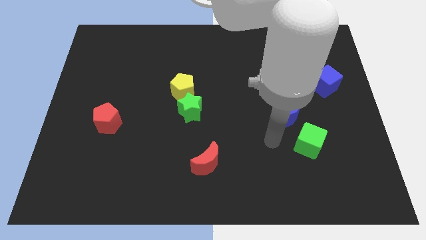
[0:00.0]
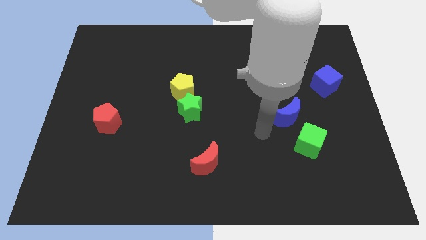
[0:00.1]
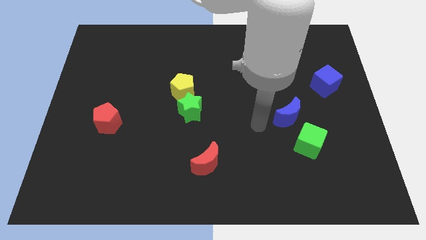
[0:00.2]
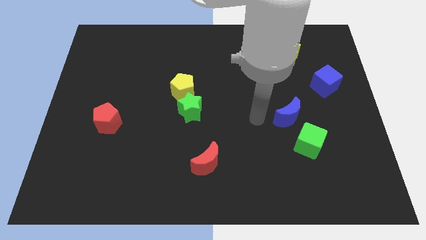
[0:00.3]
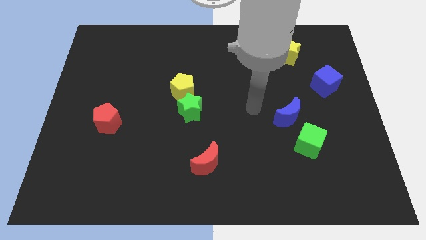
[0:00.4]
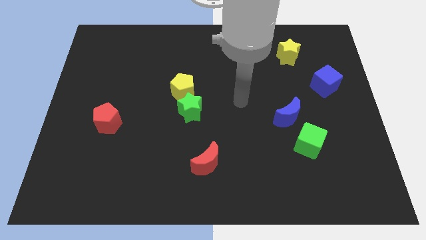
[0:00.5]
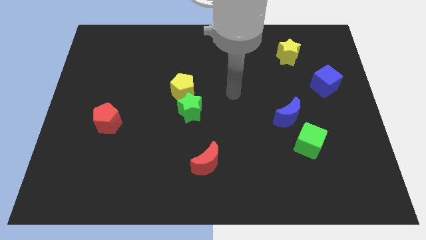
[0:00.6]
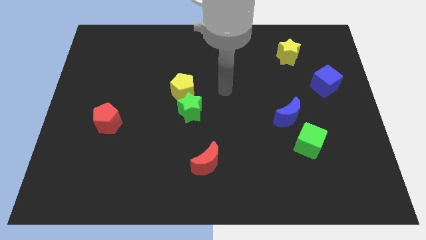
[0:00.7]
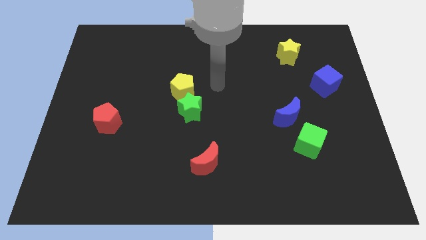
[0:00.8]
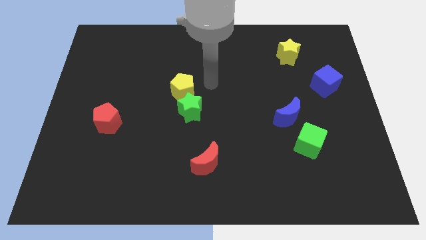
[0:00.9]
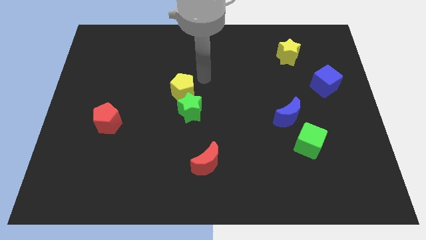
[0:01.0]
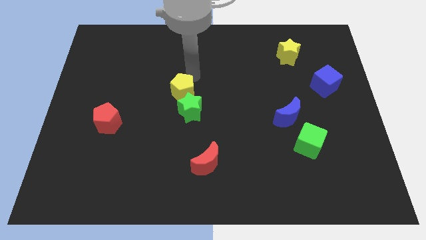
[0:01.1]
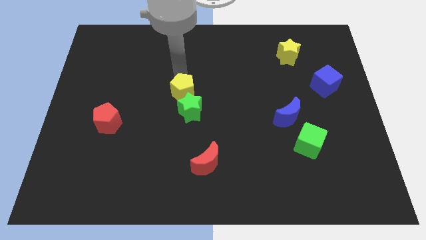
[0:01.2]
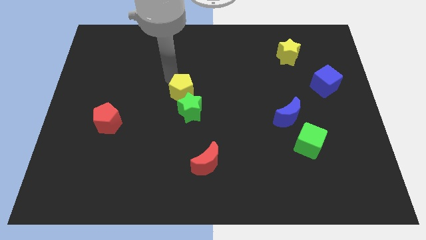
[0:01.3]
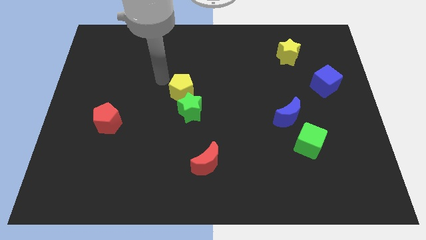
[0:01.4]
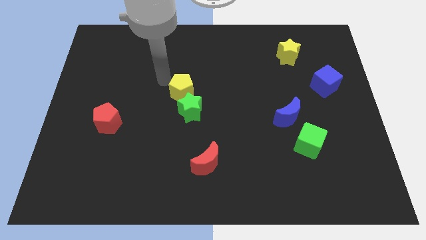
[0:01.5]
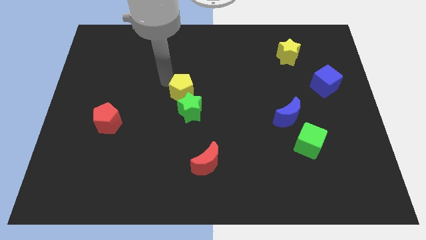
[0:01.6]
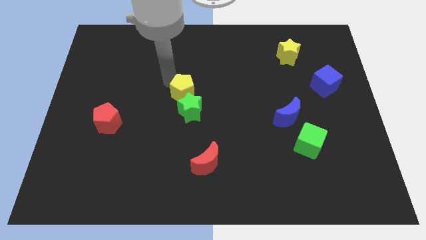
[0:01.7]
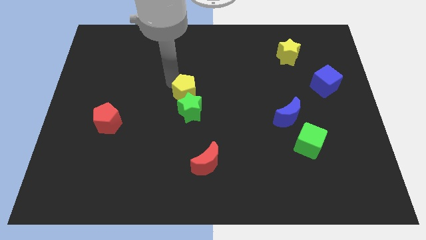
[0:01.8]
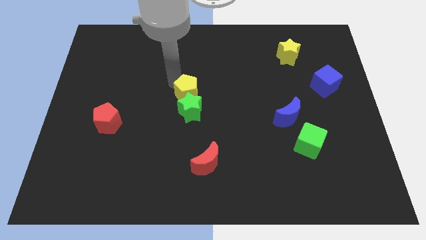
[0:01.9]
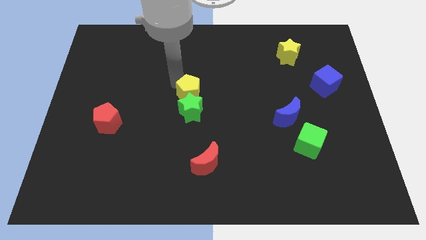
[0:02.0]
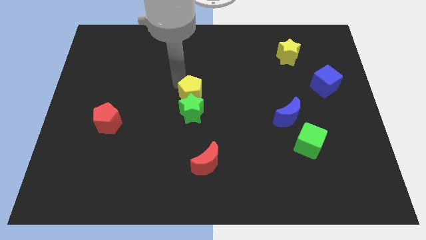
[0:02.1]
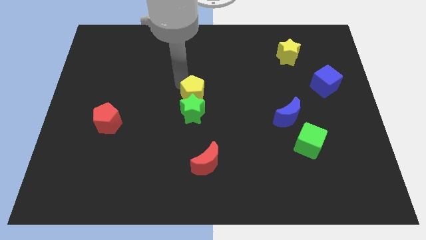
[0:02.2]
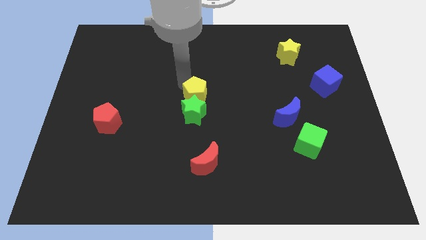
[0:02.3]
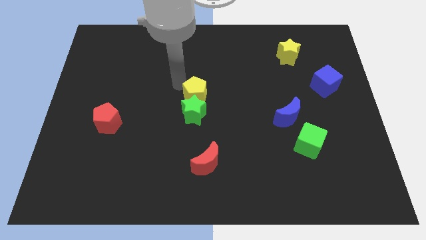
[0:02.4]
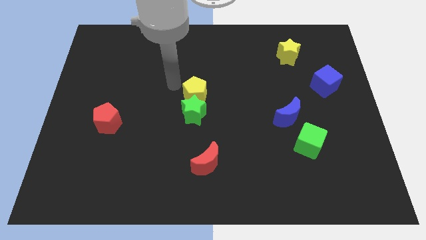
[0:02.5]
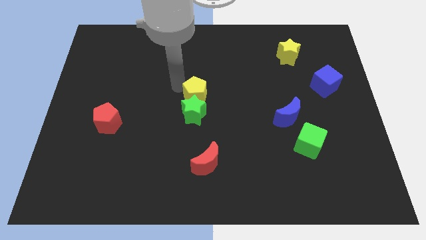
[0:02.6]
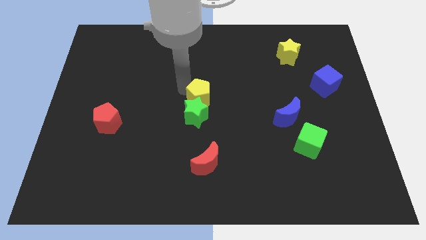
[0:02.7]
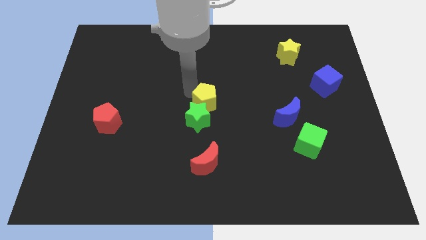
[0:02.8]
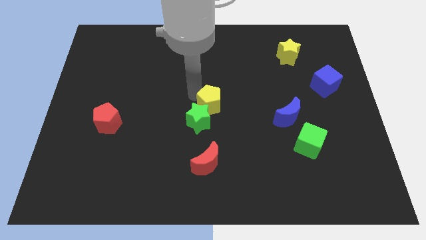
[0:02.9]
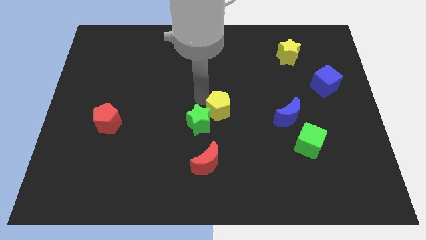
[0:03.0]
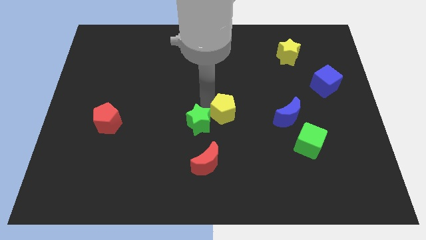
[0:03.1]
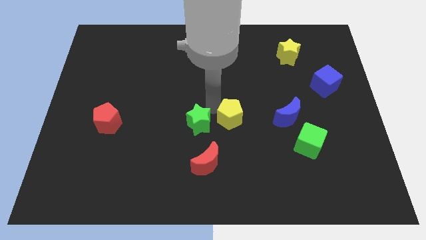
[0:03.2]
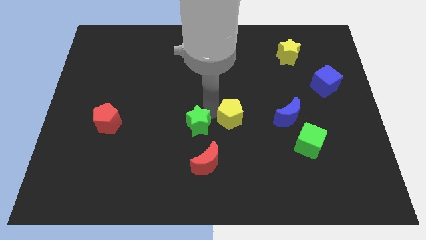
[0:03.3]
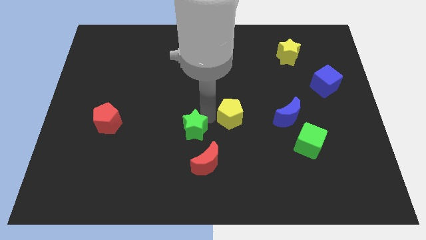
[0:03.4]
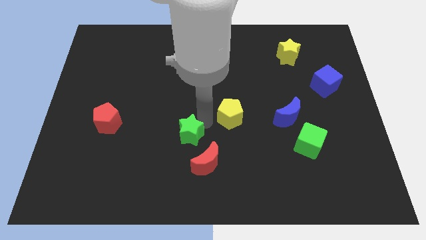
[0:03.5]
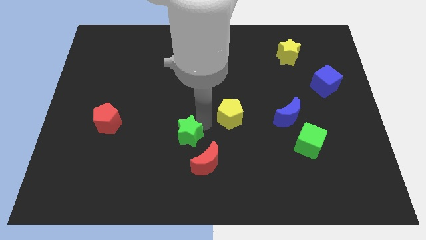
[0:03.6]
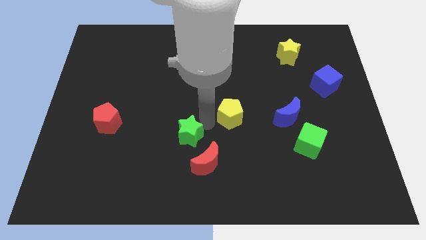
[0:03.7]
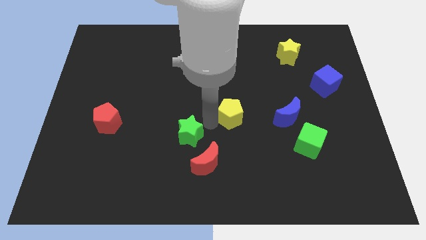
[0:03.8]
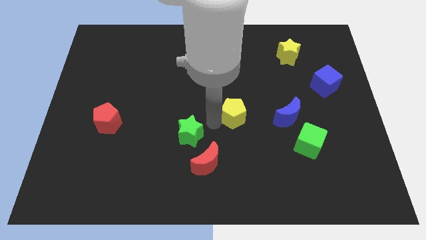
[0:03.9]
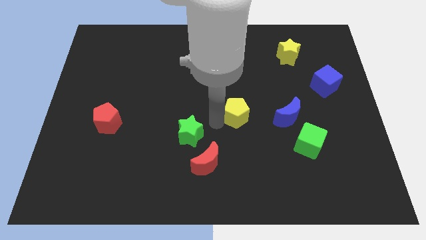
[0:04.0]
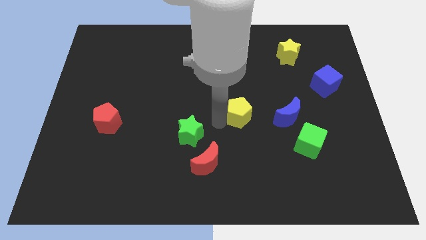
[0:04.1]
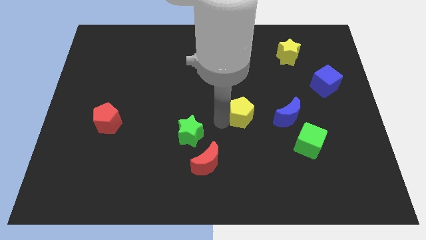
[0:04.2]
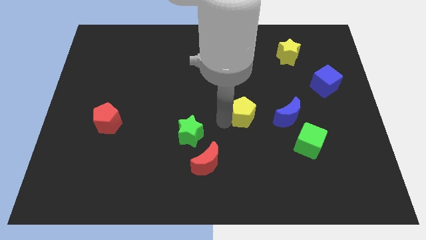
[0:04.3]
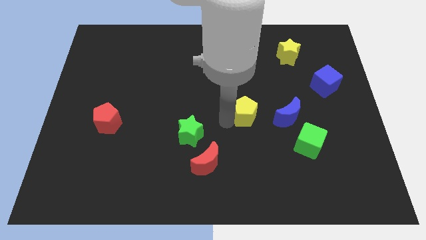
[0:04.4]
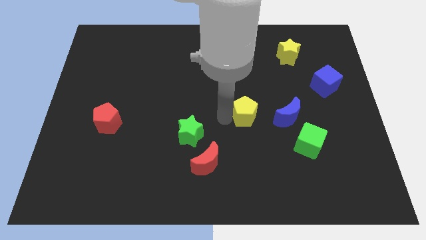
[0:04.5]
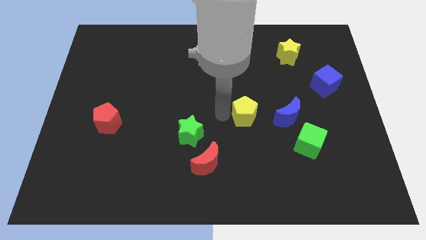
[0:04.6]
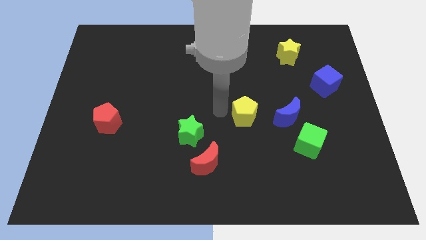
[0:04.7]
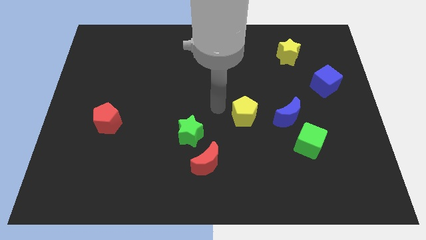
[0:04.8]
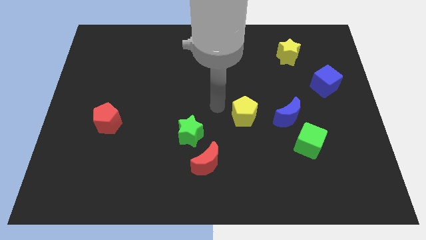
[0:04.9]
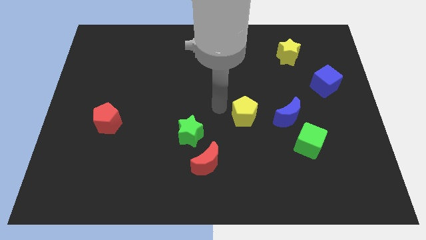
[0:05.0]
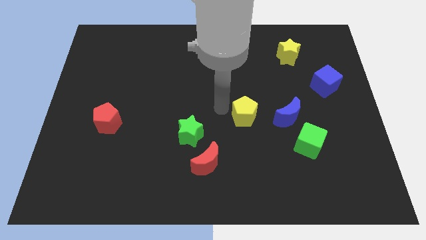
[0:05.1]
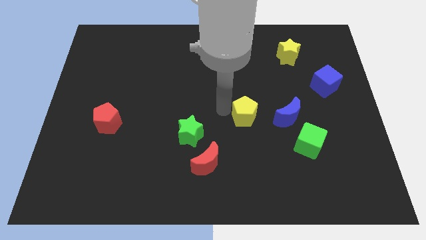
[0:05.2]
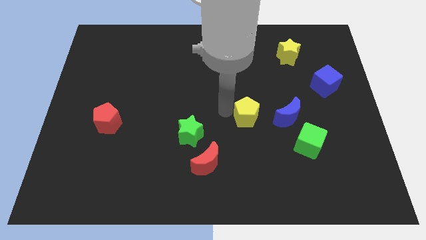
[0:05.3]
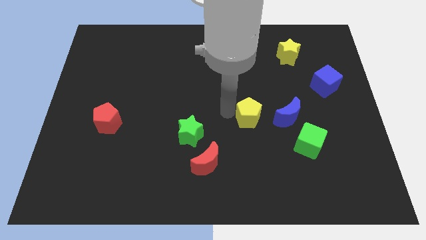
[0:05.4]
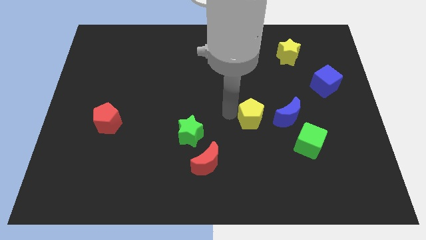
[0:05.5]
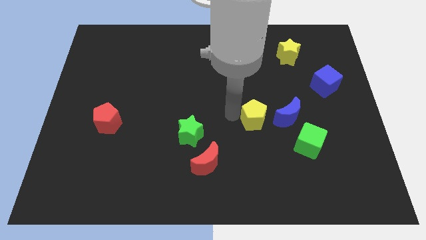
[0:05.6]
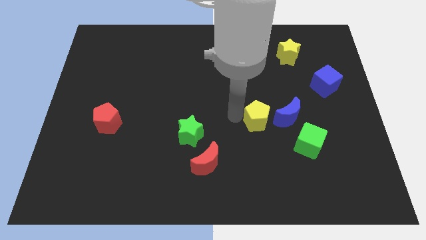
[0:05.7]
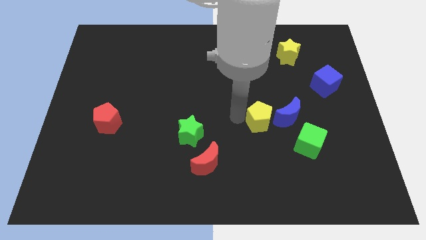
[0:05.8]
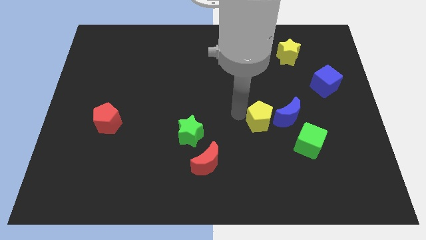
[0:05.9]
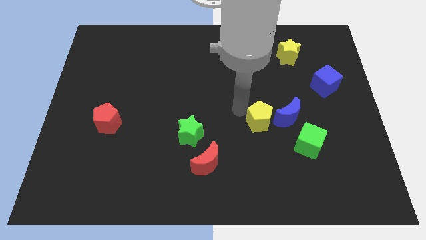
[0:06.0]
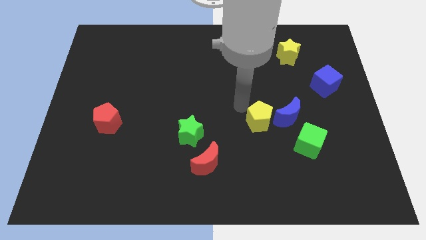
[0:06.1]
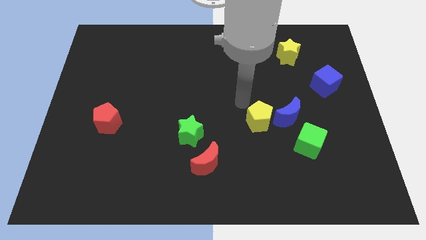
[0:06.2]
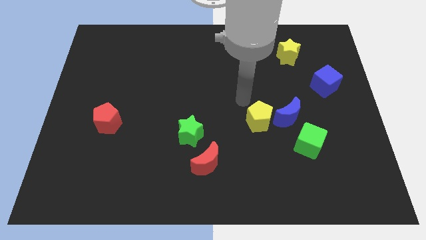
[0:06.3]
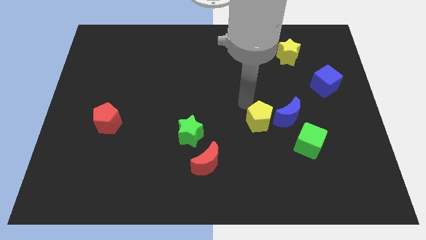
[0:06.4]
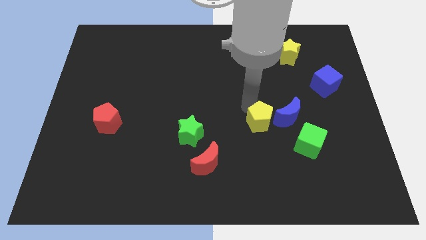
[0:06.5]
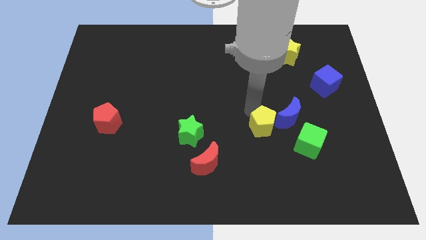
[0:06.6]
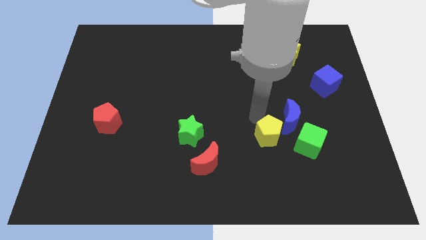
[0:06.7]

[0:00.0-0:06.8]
push the yellow pentagon diagonally downwards and right

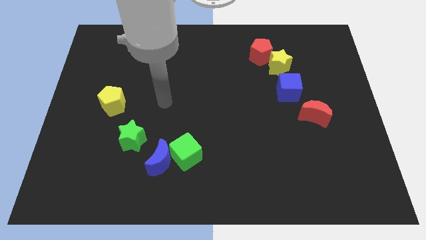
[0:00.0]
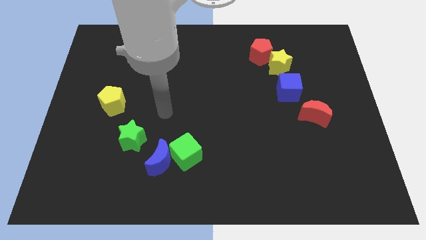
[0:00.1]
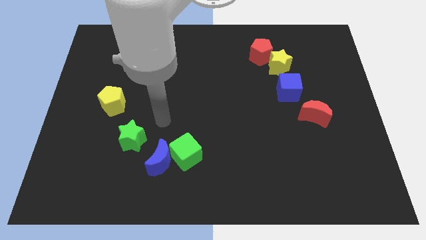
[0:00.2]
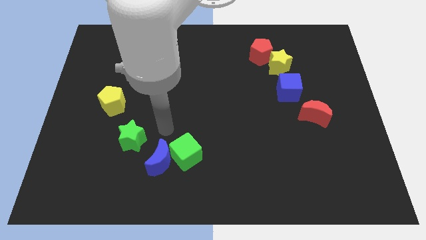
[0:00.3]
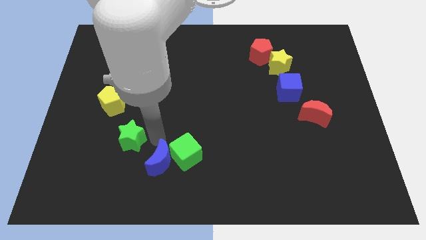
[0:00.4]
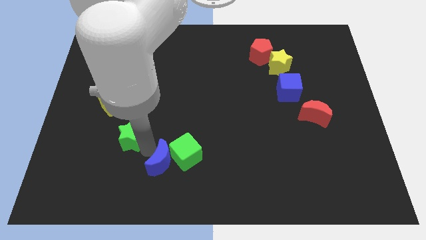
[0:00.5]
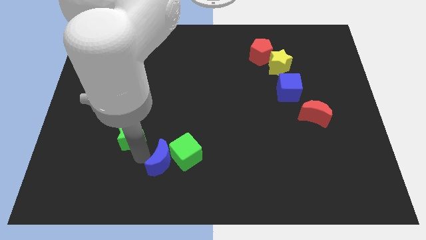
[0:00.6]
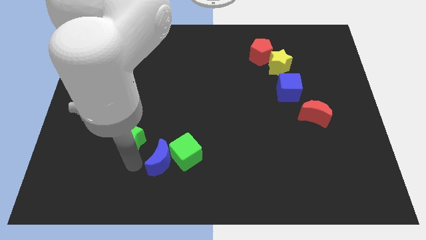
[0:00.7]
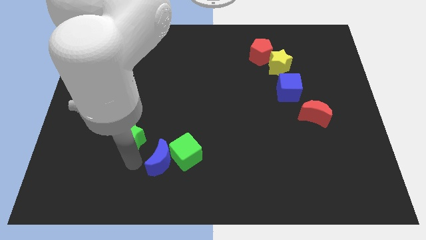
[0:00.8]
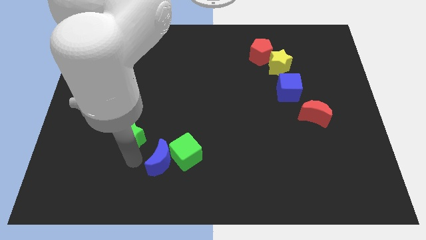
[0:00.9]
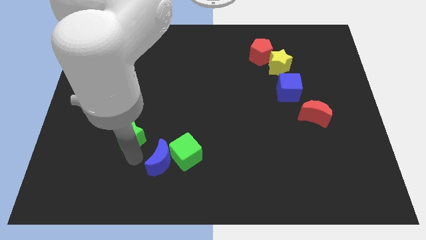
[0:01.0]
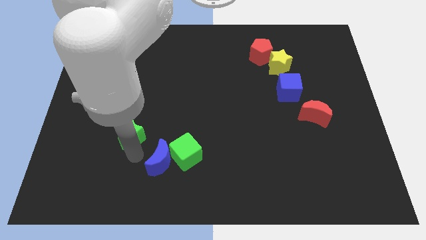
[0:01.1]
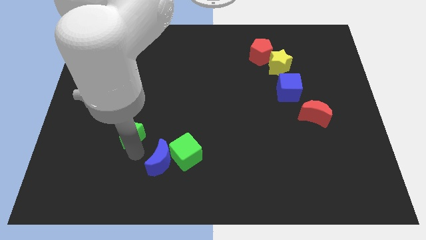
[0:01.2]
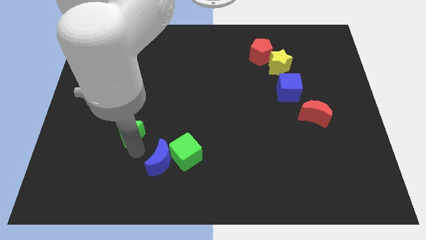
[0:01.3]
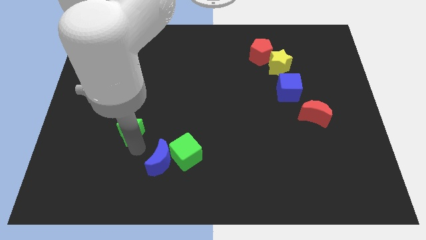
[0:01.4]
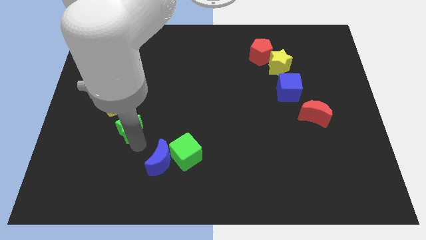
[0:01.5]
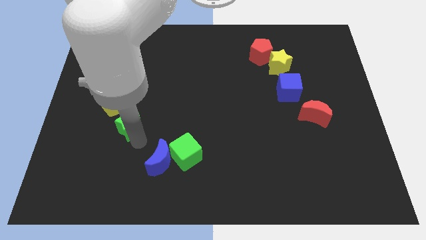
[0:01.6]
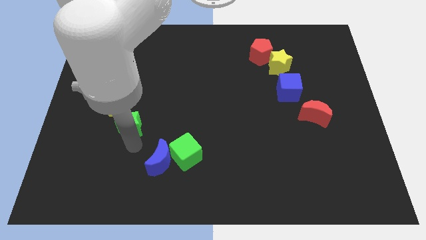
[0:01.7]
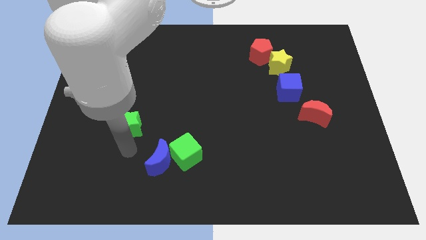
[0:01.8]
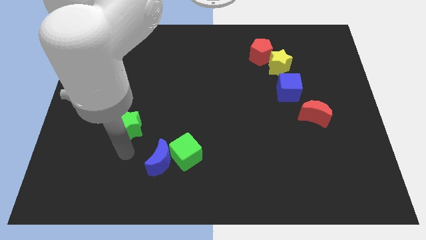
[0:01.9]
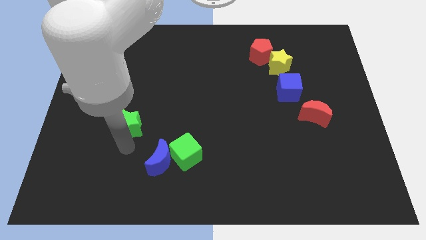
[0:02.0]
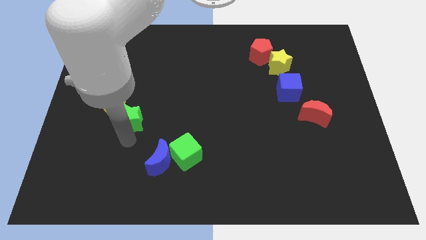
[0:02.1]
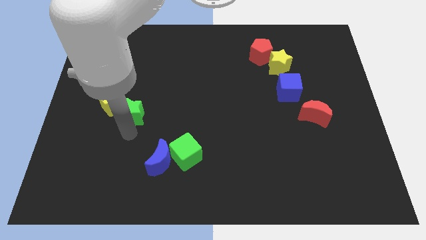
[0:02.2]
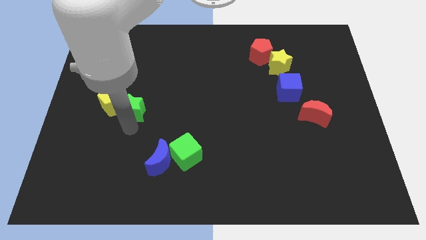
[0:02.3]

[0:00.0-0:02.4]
slightly slide the green star upwards
